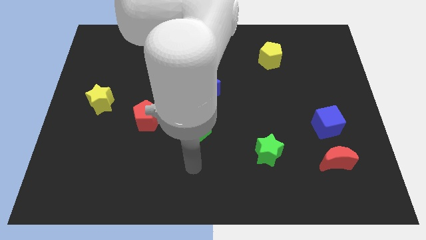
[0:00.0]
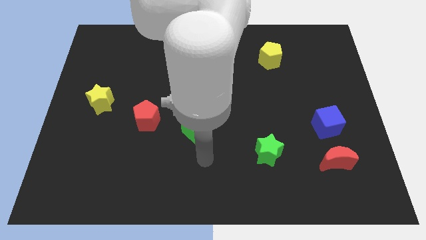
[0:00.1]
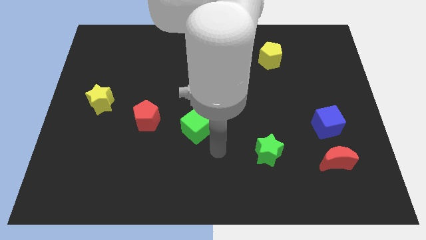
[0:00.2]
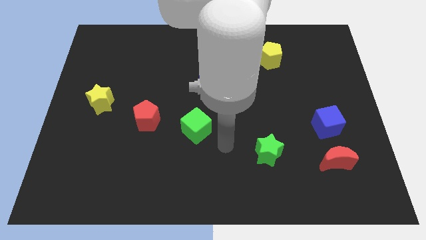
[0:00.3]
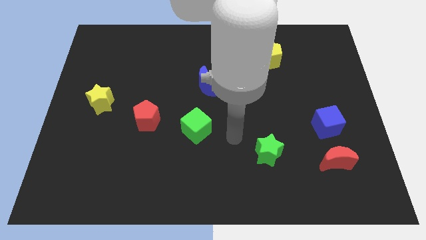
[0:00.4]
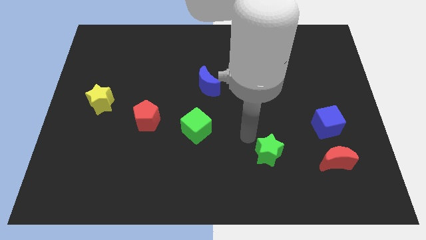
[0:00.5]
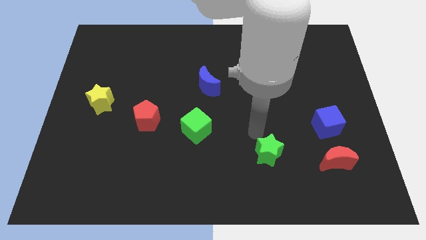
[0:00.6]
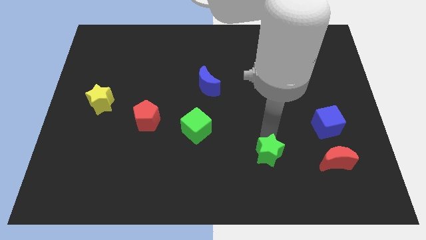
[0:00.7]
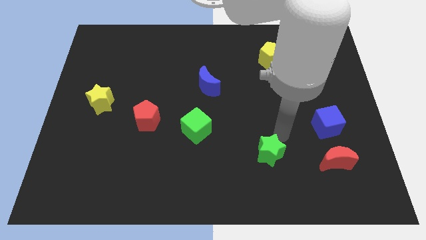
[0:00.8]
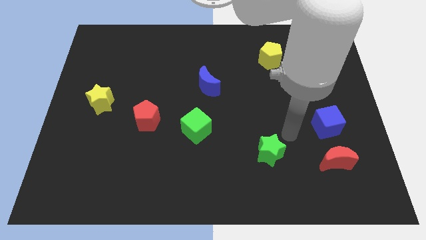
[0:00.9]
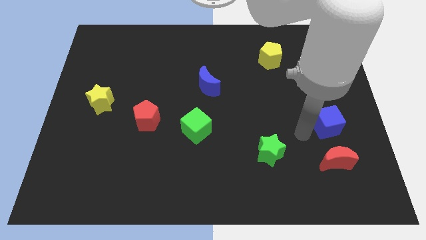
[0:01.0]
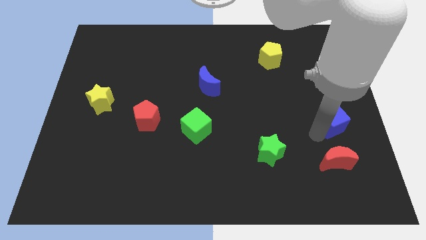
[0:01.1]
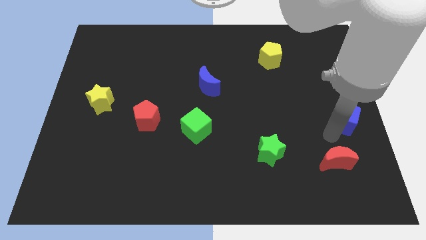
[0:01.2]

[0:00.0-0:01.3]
separate the red moon from the blue cube

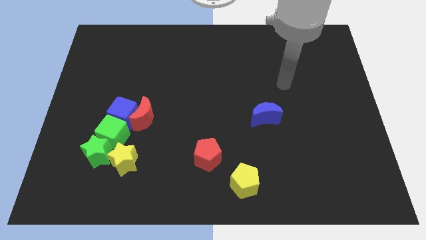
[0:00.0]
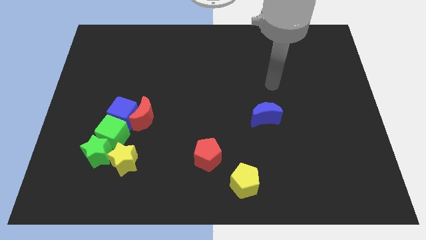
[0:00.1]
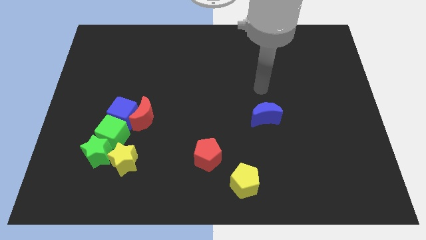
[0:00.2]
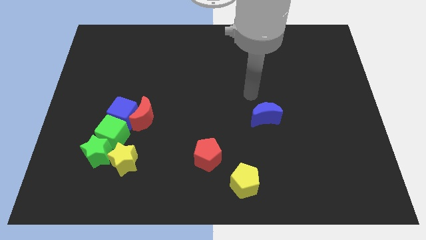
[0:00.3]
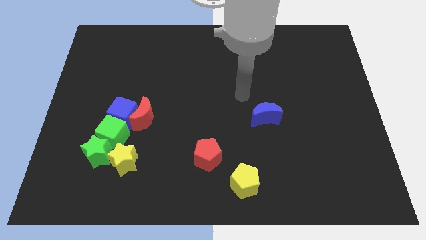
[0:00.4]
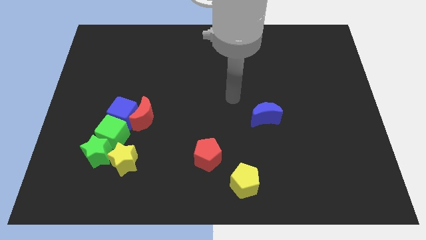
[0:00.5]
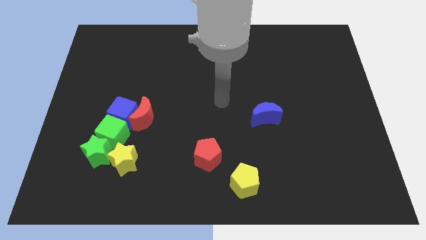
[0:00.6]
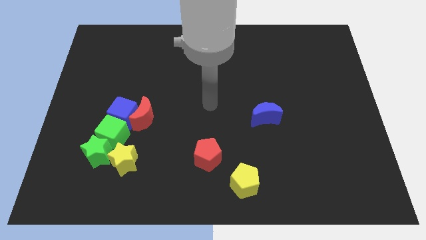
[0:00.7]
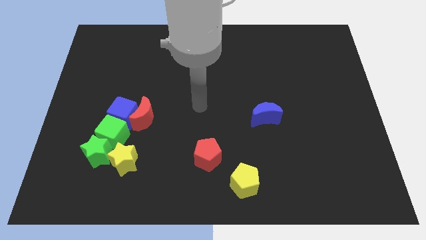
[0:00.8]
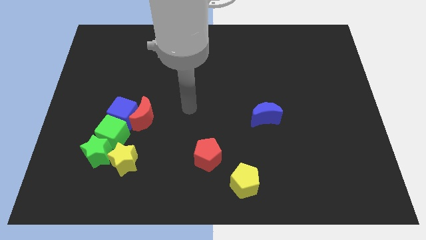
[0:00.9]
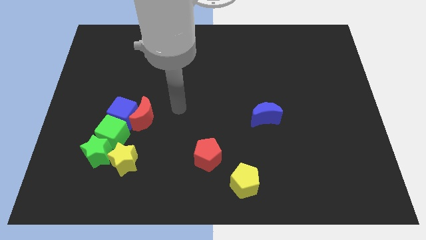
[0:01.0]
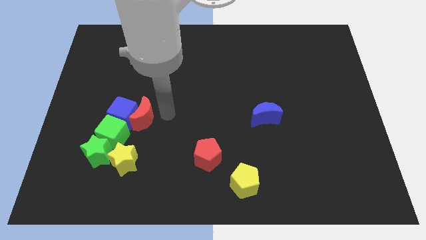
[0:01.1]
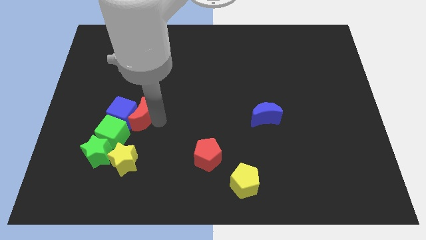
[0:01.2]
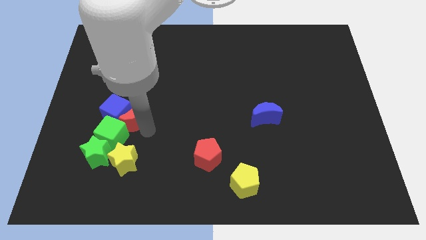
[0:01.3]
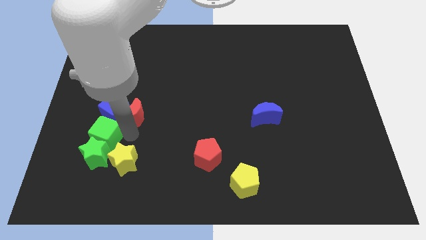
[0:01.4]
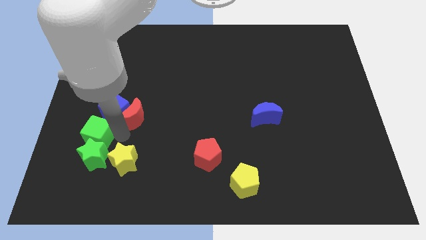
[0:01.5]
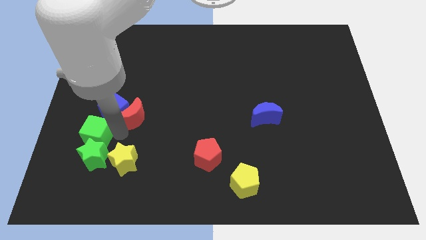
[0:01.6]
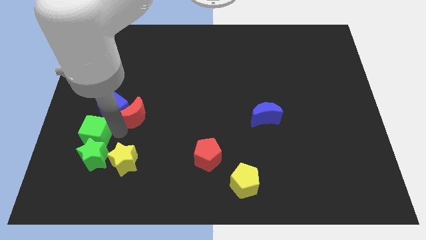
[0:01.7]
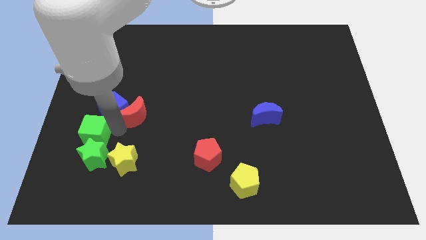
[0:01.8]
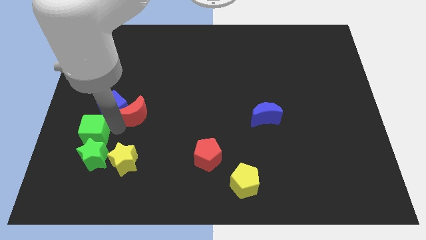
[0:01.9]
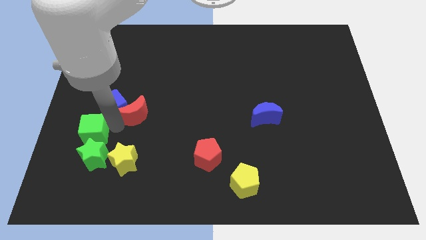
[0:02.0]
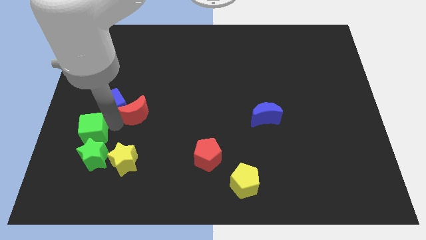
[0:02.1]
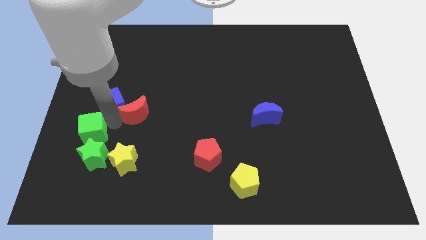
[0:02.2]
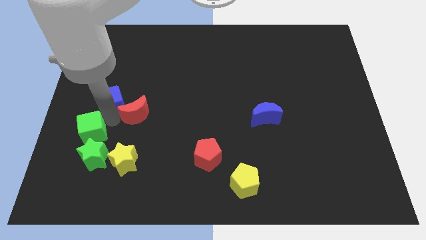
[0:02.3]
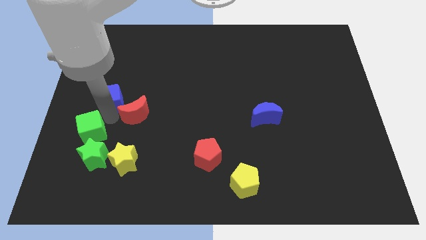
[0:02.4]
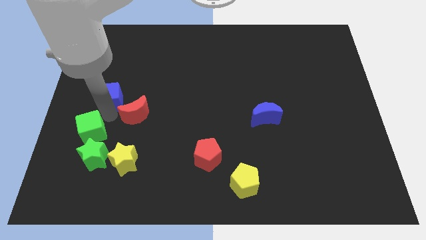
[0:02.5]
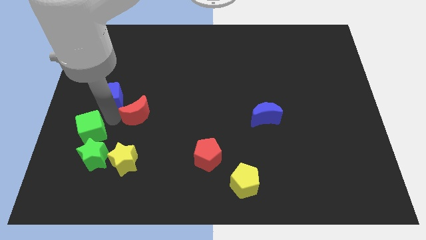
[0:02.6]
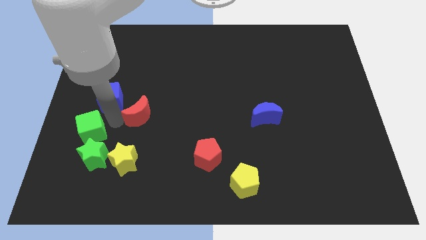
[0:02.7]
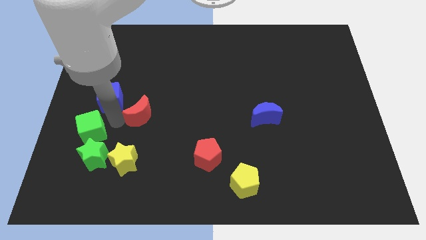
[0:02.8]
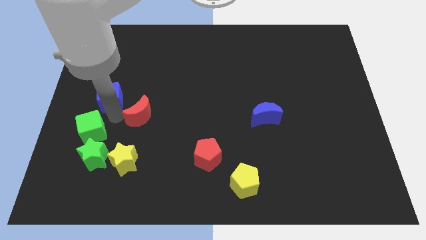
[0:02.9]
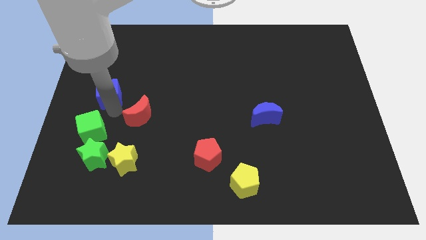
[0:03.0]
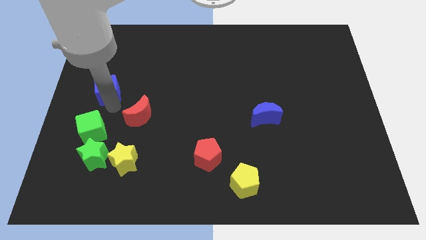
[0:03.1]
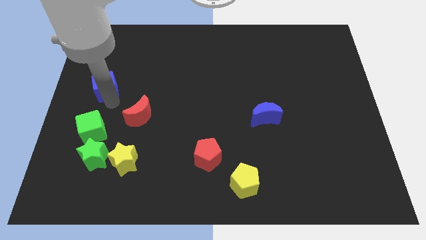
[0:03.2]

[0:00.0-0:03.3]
separate the blue cube from the red moon and green cube

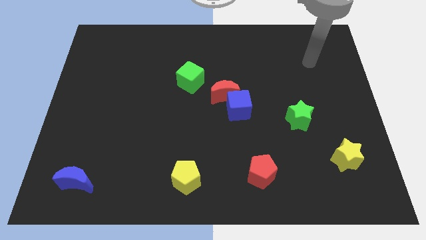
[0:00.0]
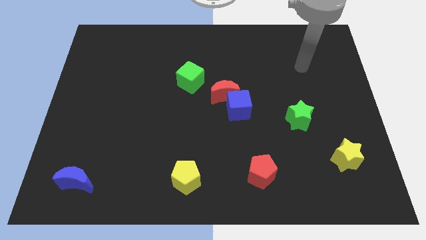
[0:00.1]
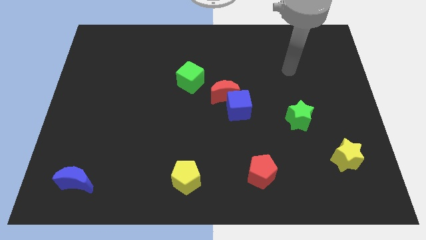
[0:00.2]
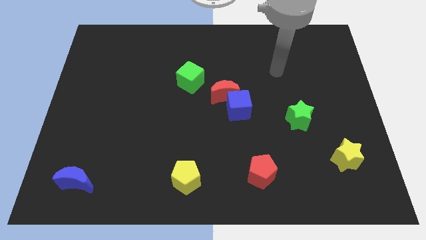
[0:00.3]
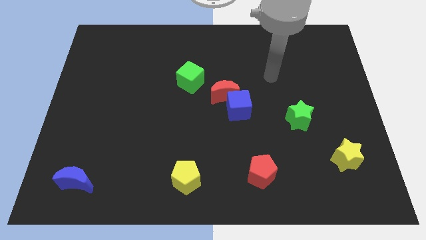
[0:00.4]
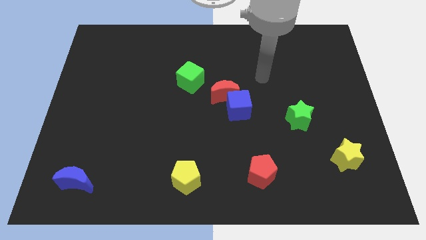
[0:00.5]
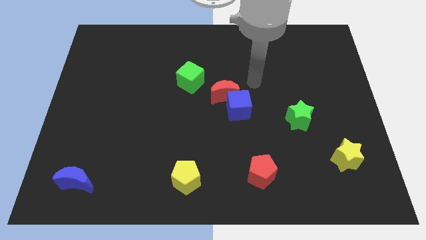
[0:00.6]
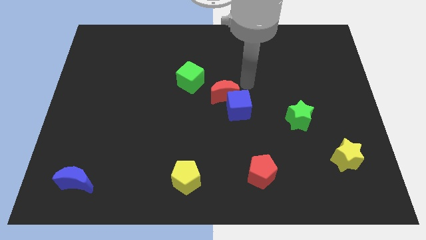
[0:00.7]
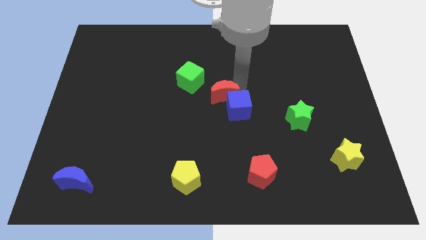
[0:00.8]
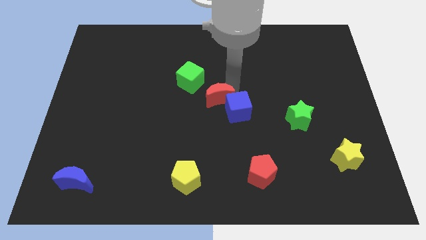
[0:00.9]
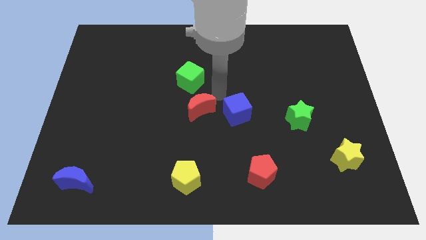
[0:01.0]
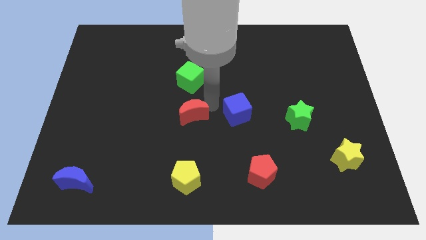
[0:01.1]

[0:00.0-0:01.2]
move the blue cube away from the red moon

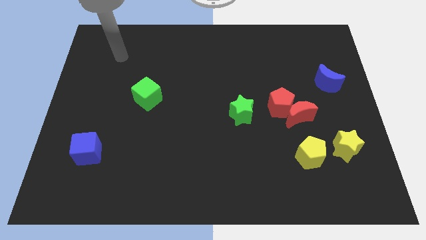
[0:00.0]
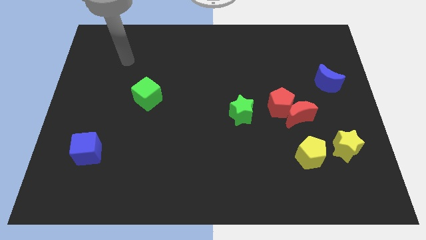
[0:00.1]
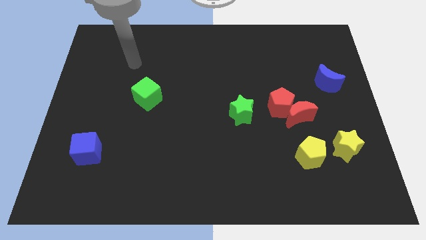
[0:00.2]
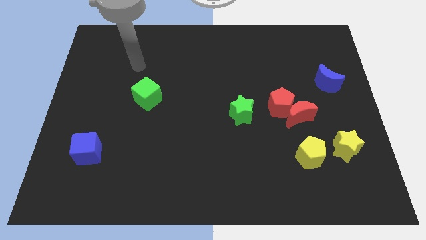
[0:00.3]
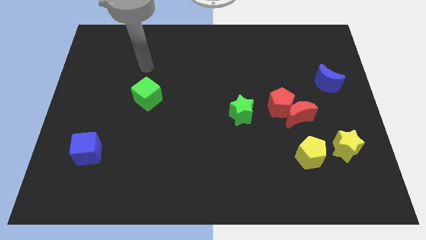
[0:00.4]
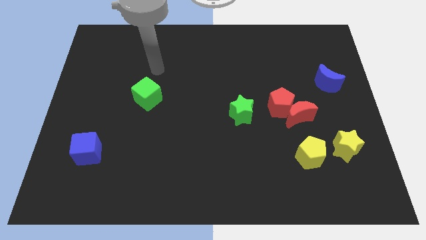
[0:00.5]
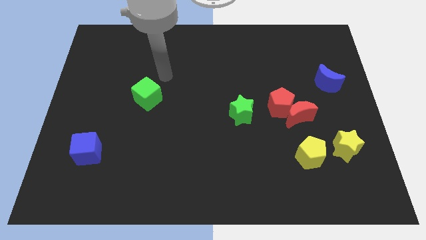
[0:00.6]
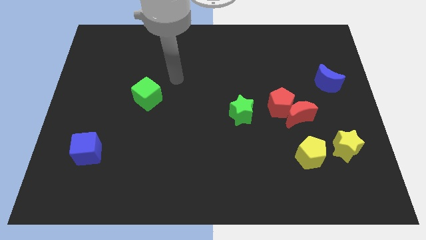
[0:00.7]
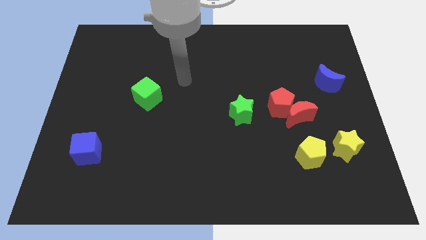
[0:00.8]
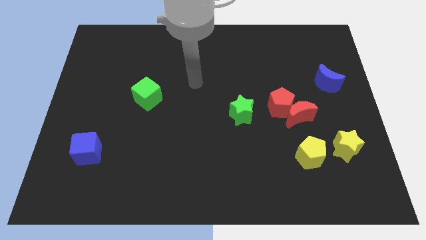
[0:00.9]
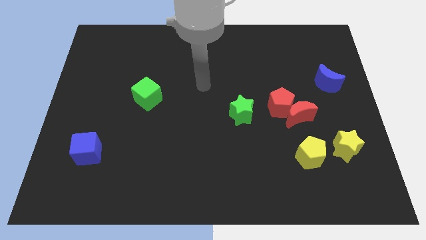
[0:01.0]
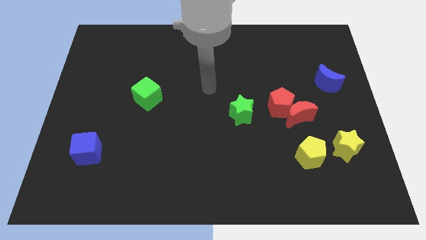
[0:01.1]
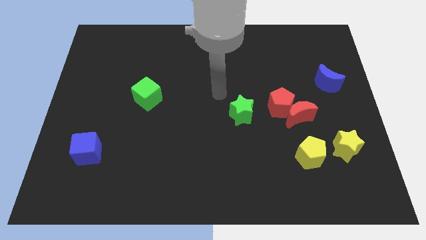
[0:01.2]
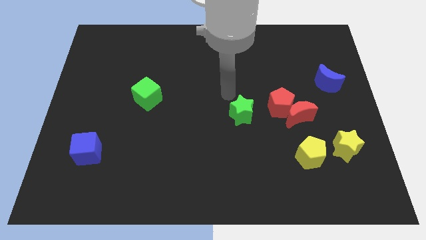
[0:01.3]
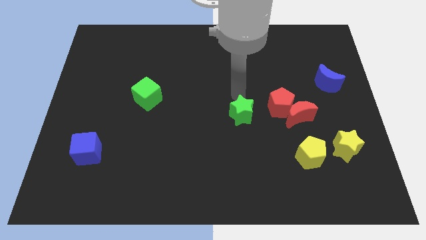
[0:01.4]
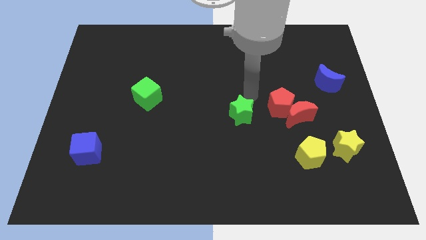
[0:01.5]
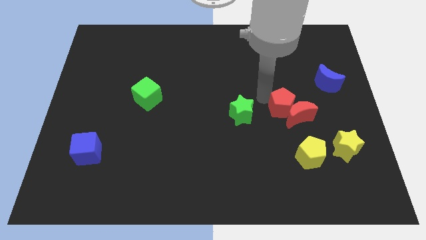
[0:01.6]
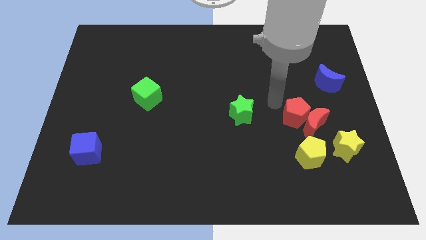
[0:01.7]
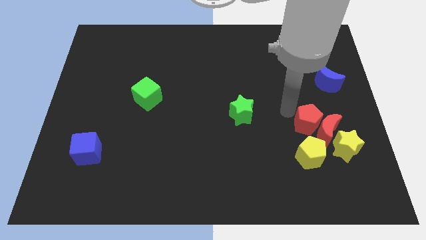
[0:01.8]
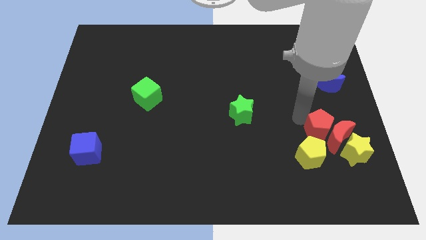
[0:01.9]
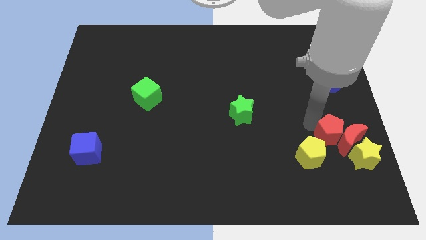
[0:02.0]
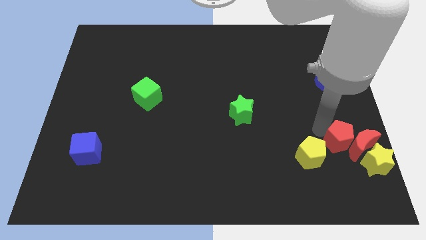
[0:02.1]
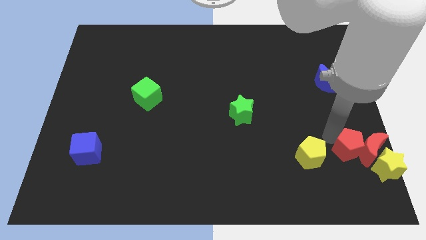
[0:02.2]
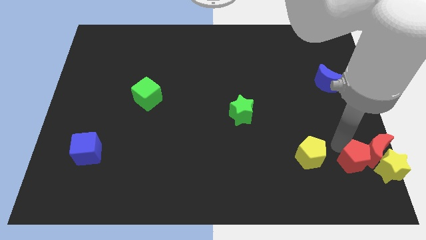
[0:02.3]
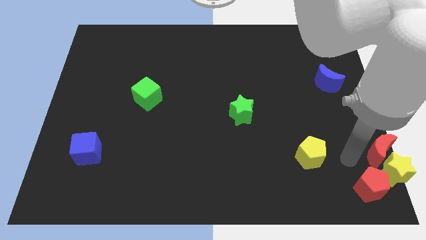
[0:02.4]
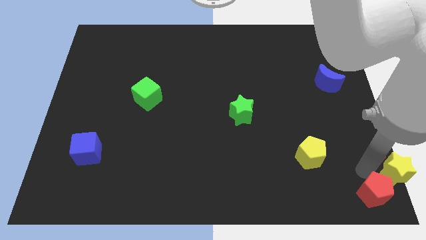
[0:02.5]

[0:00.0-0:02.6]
move the red moon away from the red pentagon

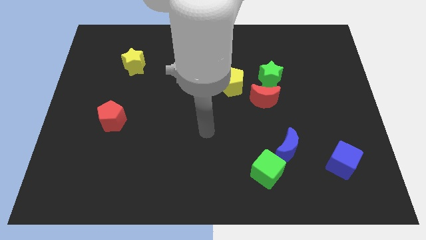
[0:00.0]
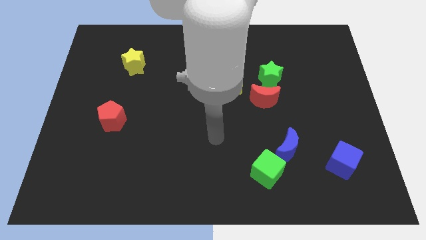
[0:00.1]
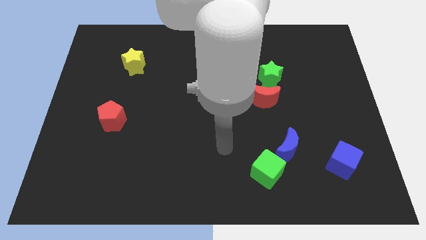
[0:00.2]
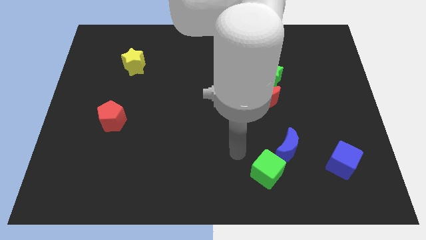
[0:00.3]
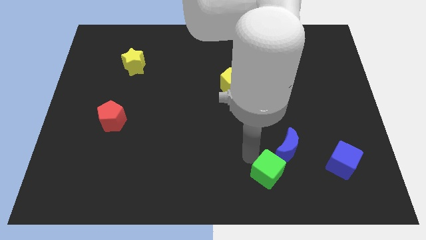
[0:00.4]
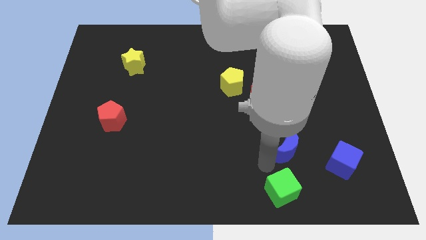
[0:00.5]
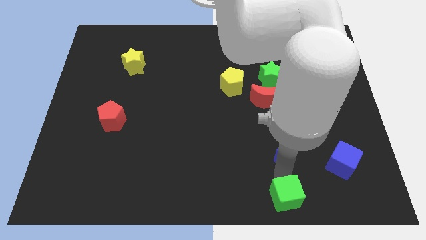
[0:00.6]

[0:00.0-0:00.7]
separate the blue moon from the green cube

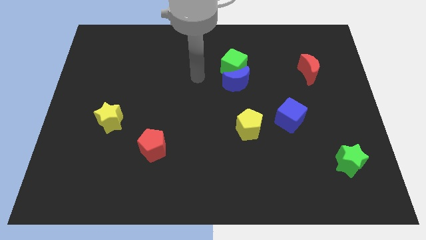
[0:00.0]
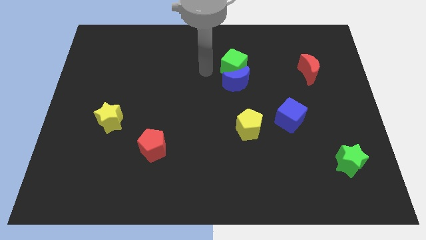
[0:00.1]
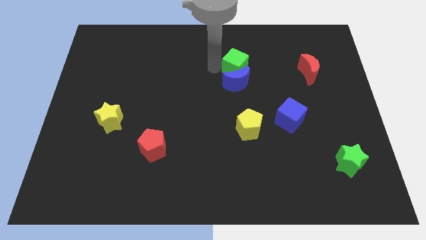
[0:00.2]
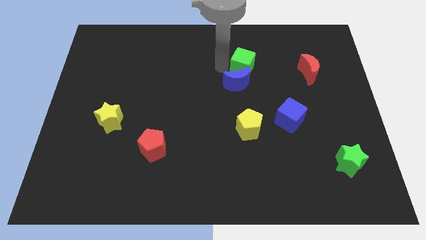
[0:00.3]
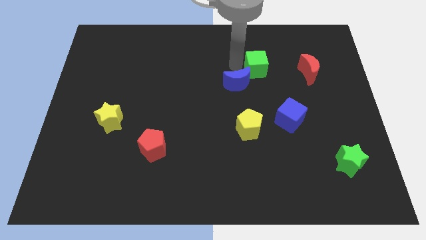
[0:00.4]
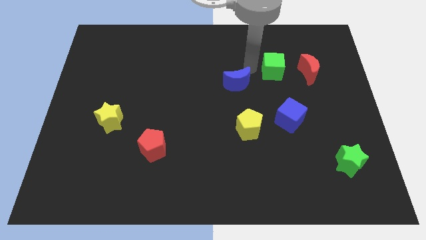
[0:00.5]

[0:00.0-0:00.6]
pull the blue moon apart from the green cube
